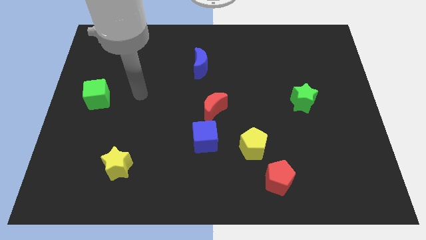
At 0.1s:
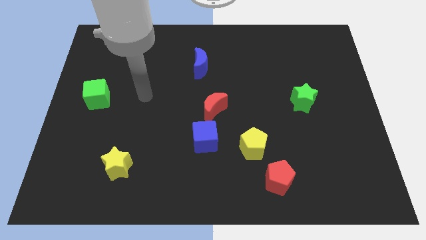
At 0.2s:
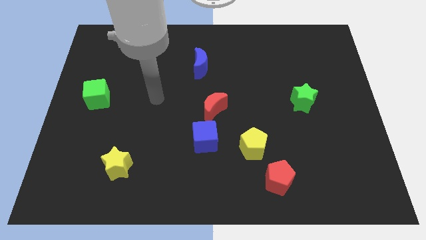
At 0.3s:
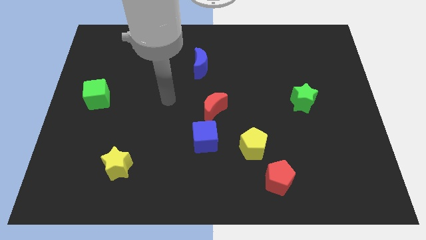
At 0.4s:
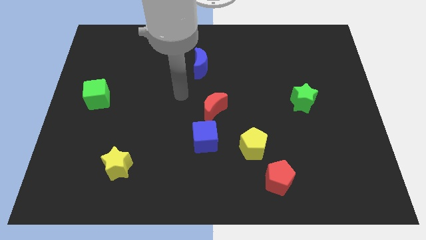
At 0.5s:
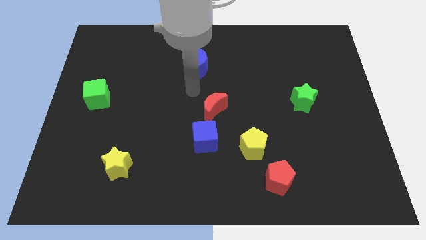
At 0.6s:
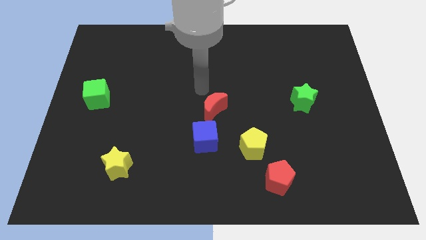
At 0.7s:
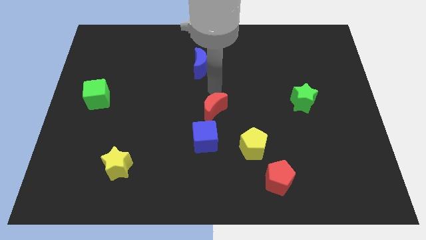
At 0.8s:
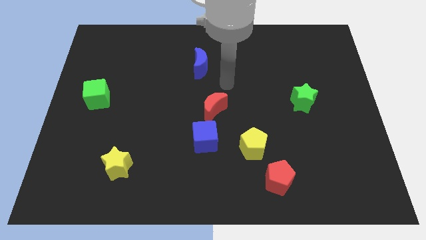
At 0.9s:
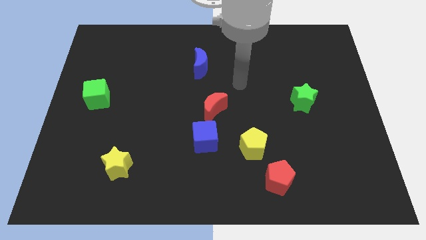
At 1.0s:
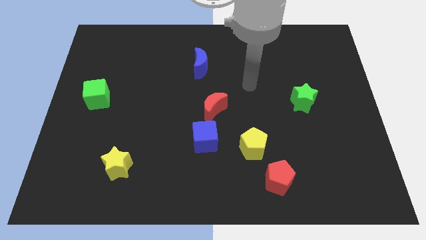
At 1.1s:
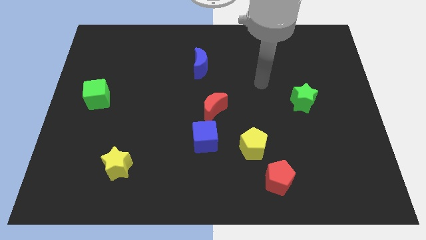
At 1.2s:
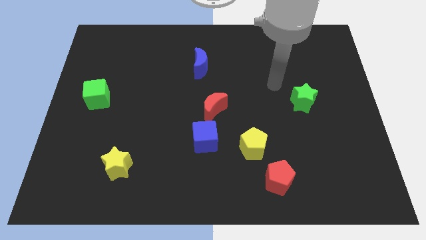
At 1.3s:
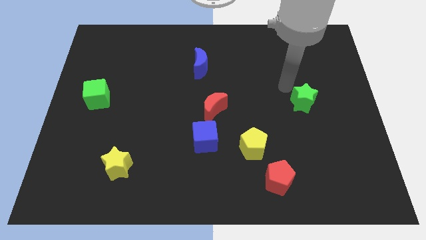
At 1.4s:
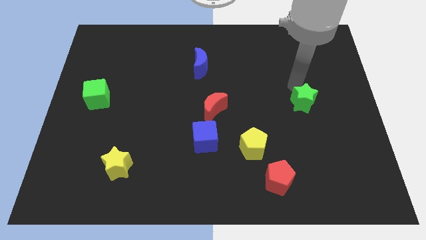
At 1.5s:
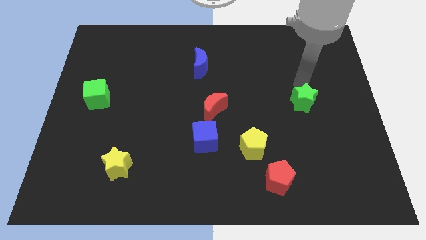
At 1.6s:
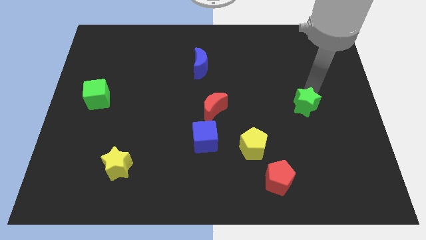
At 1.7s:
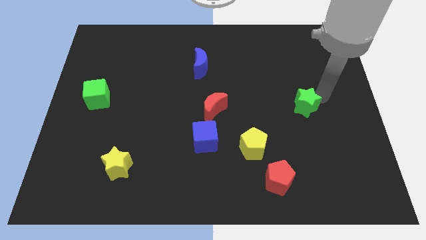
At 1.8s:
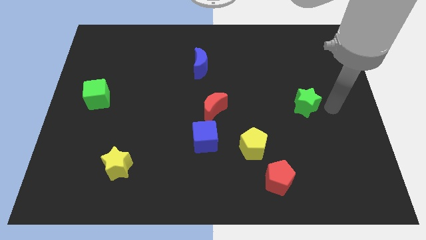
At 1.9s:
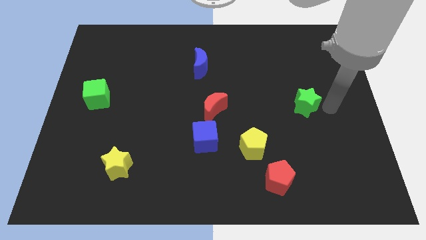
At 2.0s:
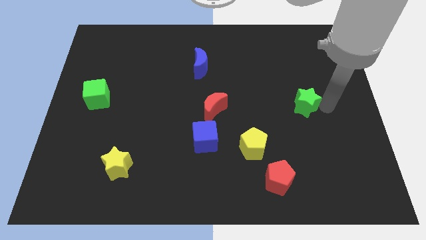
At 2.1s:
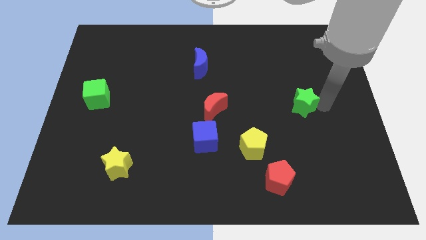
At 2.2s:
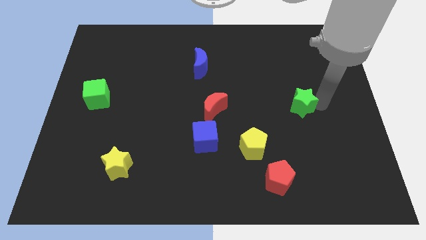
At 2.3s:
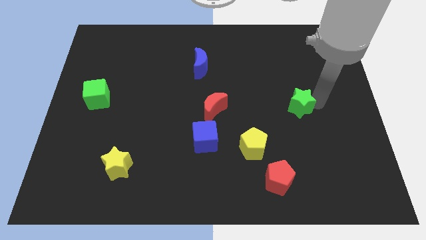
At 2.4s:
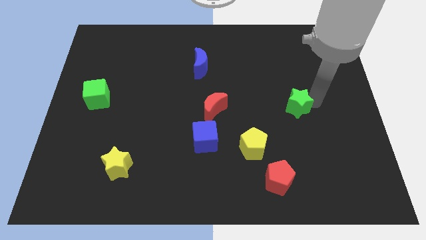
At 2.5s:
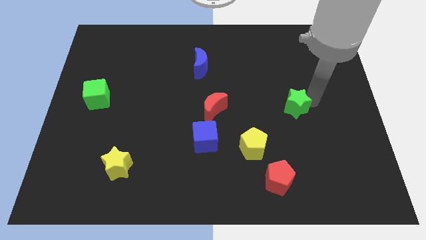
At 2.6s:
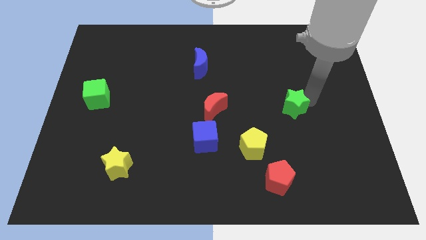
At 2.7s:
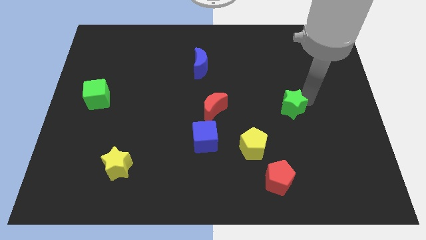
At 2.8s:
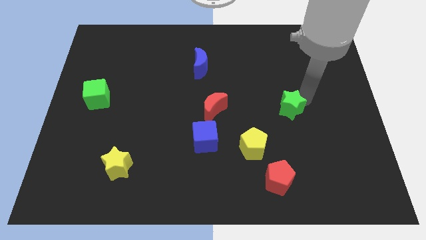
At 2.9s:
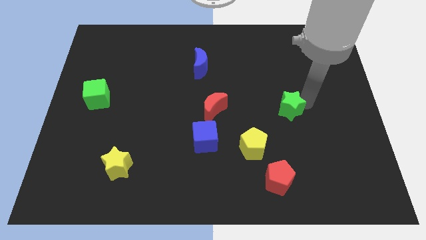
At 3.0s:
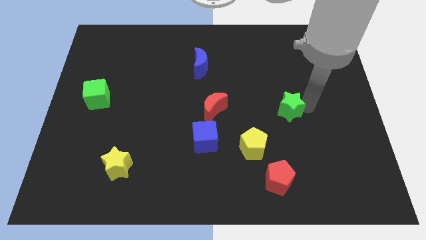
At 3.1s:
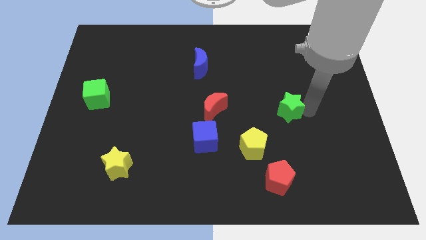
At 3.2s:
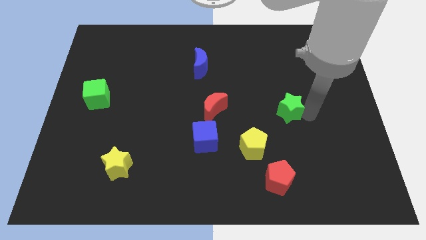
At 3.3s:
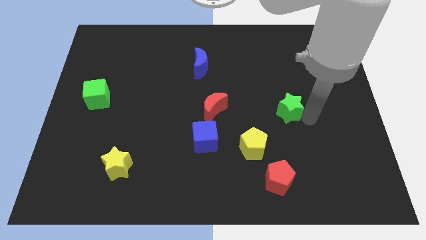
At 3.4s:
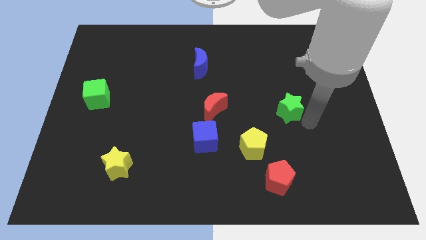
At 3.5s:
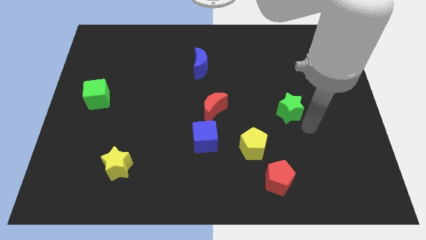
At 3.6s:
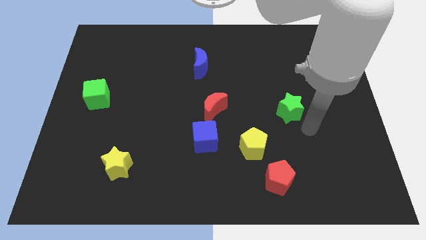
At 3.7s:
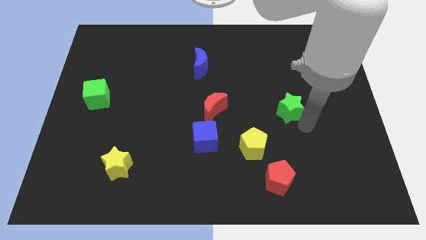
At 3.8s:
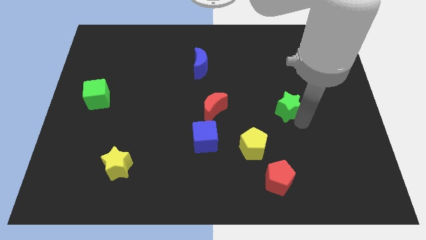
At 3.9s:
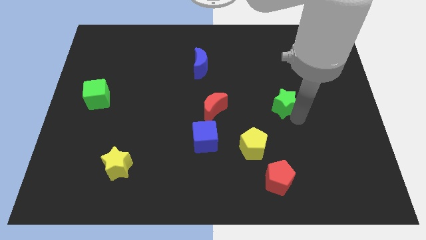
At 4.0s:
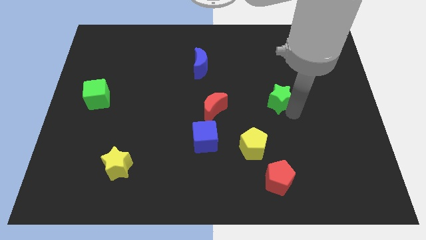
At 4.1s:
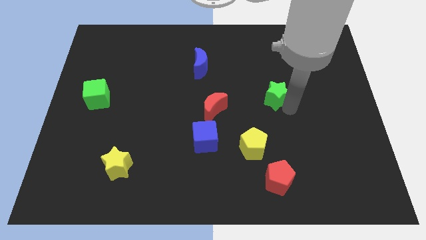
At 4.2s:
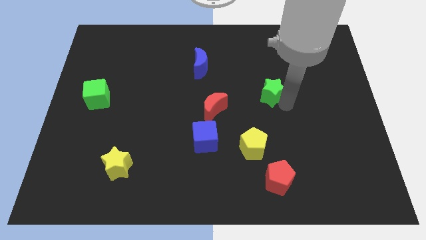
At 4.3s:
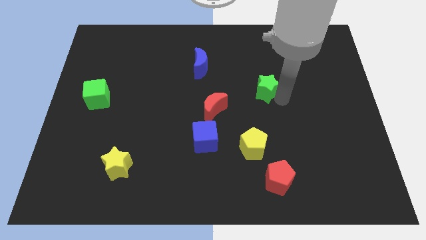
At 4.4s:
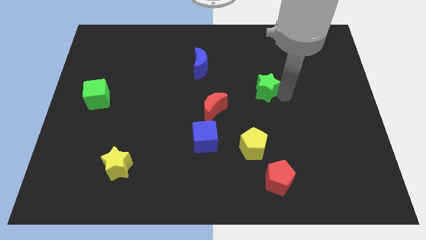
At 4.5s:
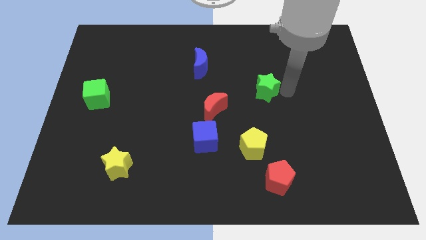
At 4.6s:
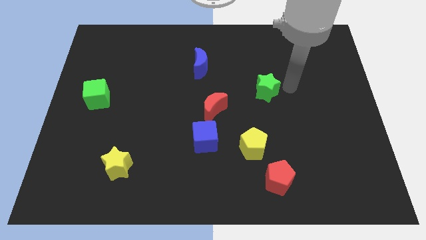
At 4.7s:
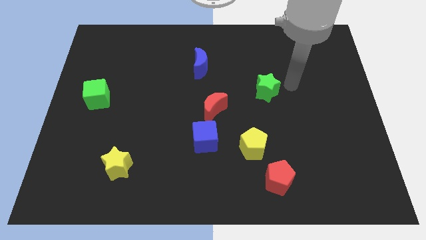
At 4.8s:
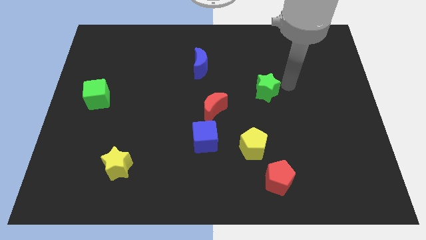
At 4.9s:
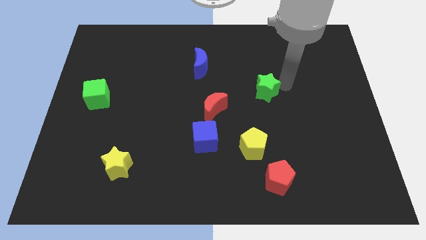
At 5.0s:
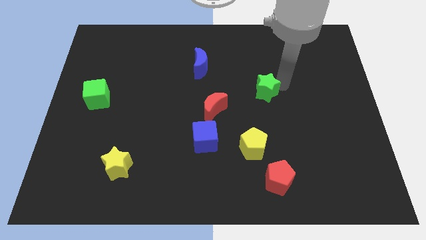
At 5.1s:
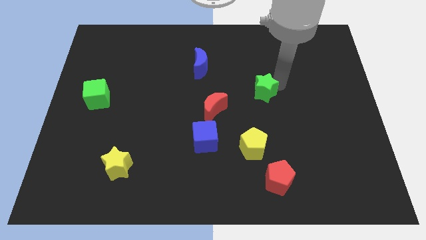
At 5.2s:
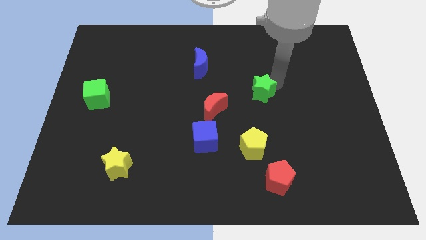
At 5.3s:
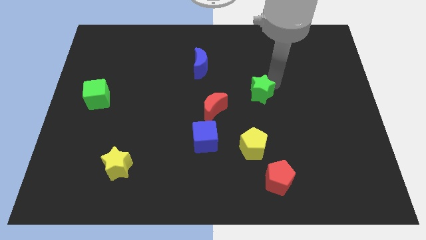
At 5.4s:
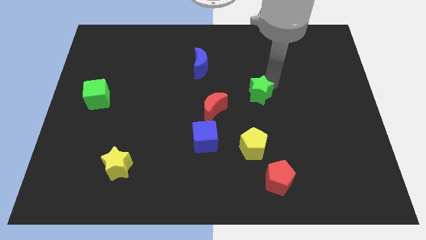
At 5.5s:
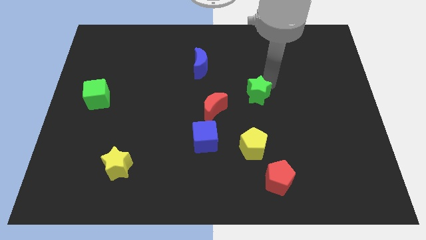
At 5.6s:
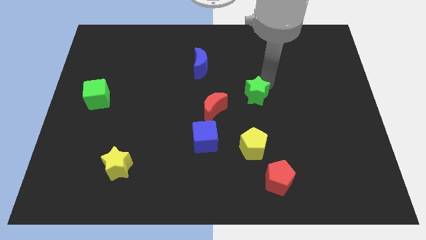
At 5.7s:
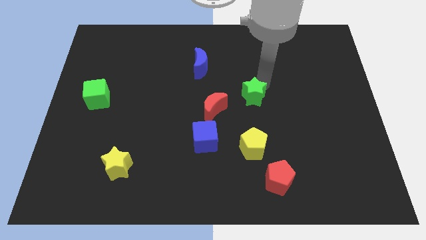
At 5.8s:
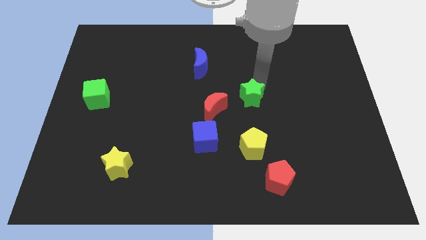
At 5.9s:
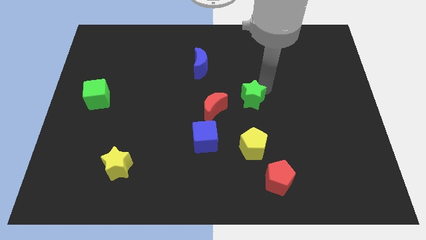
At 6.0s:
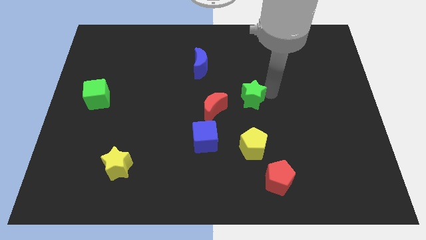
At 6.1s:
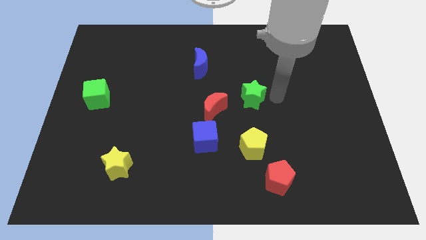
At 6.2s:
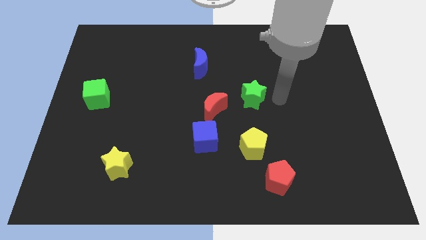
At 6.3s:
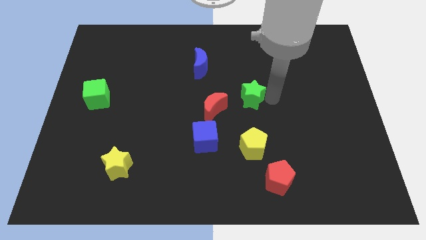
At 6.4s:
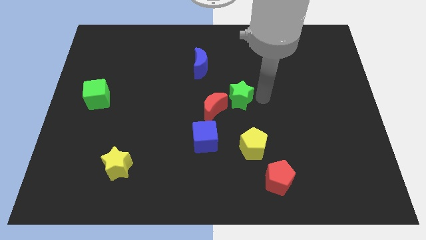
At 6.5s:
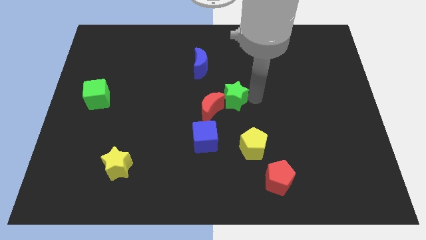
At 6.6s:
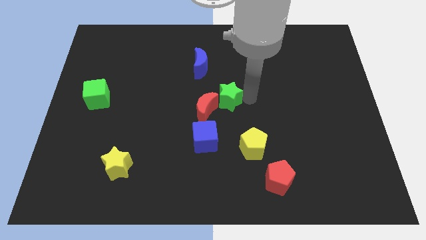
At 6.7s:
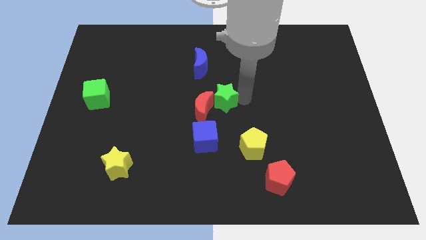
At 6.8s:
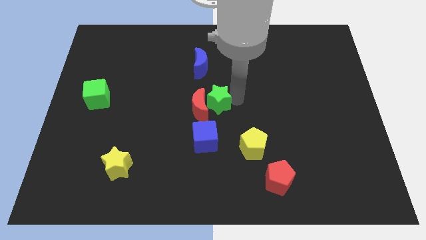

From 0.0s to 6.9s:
slide the green star left

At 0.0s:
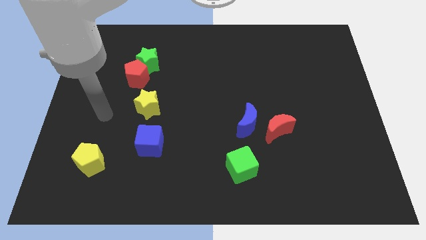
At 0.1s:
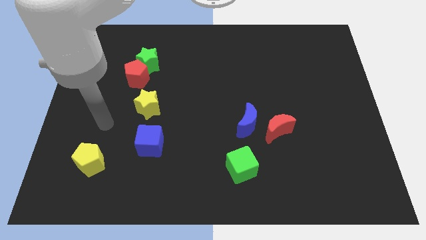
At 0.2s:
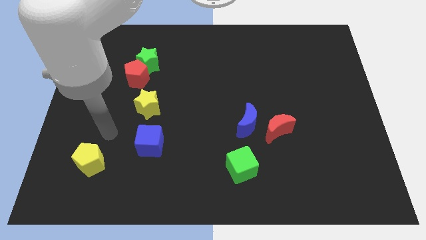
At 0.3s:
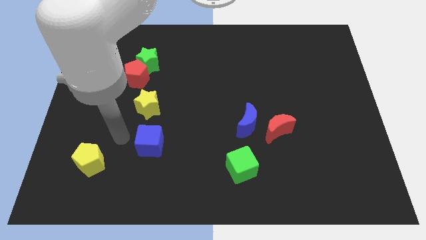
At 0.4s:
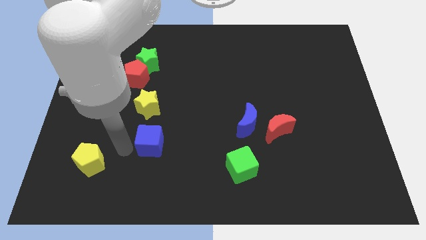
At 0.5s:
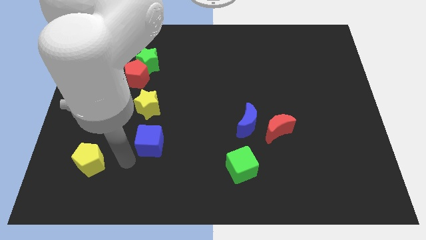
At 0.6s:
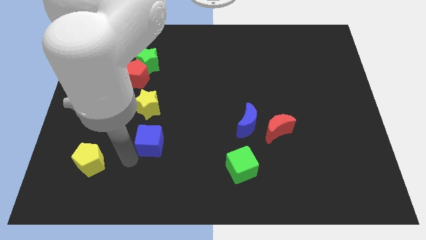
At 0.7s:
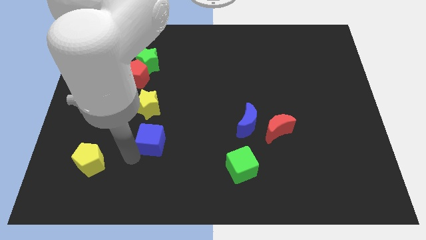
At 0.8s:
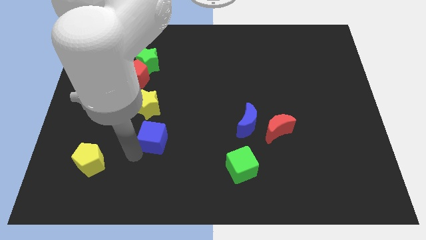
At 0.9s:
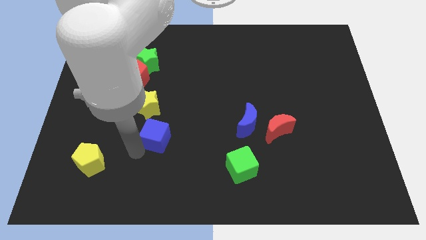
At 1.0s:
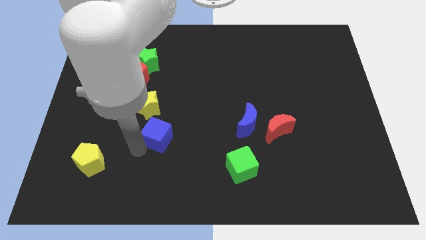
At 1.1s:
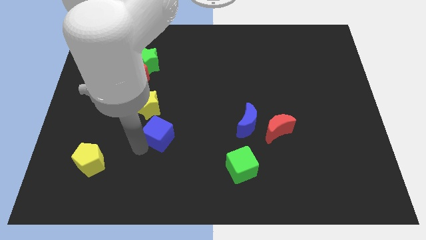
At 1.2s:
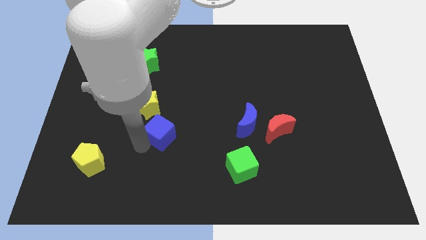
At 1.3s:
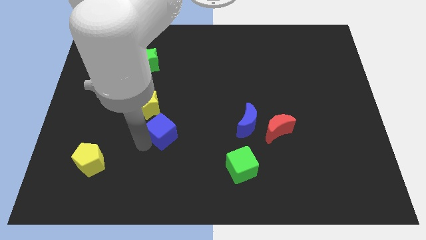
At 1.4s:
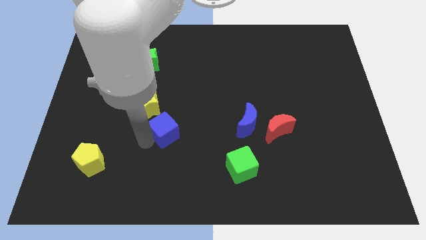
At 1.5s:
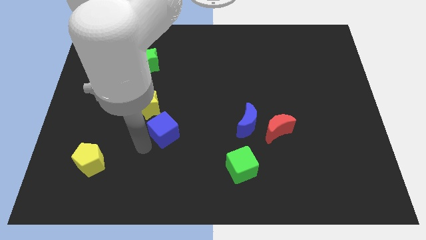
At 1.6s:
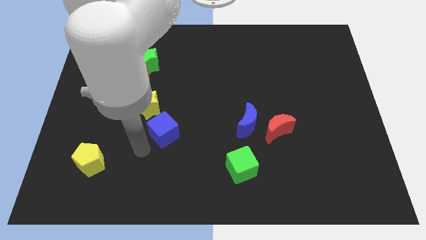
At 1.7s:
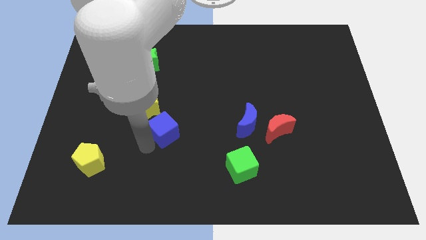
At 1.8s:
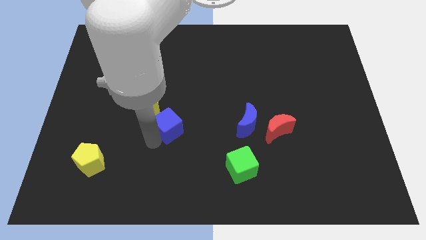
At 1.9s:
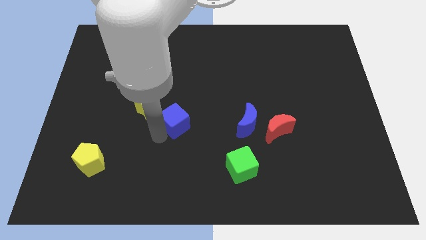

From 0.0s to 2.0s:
slightly move the blue cube diagonally upwards and to the right
